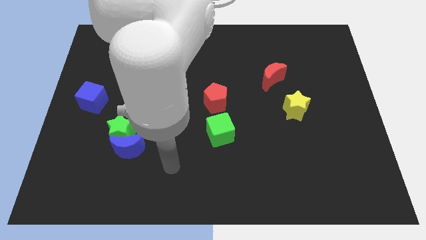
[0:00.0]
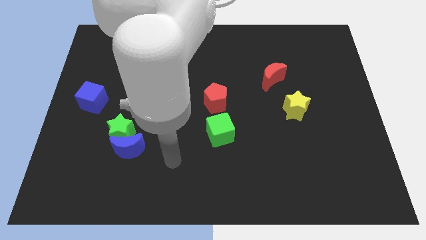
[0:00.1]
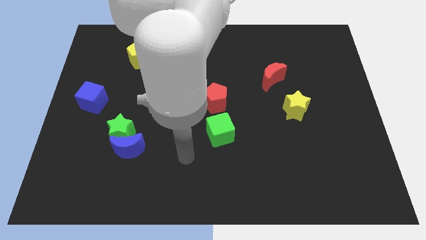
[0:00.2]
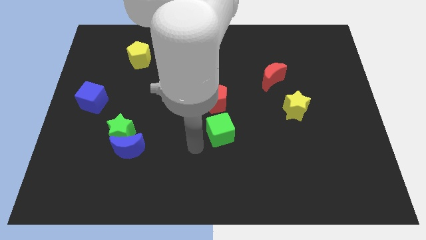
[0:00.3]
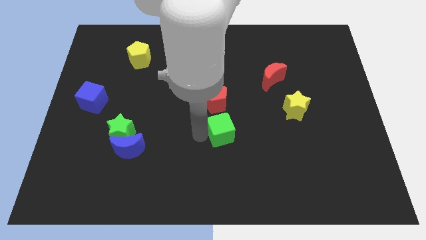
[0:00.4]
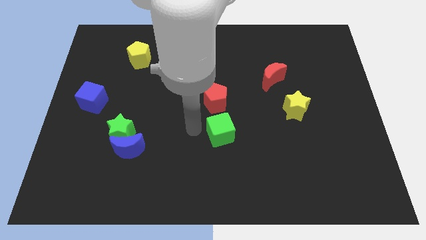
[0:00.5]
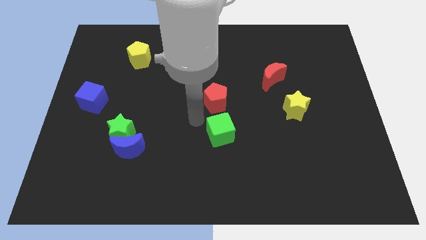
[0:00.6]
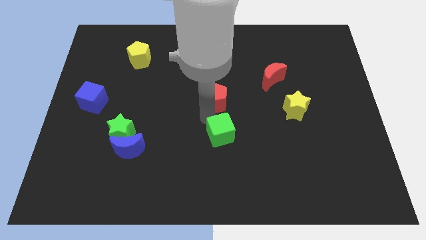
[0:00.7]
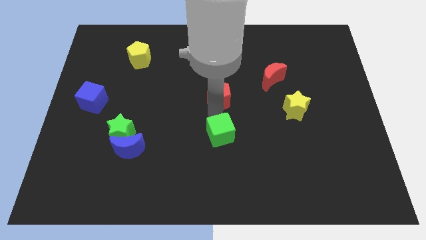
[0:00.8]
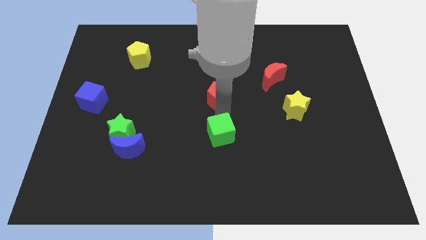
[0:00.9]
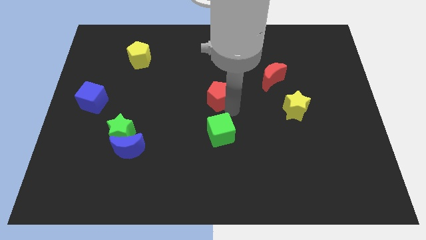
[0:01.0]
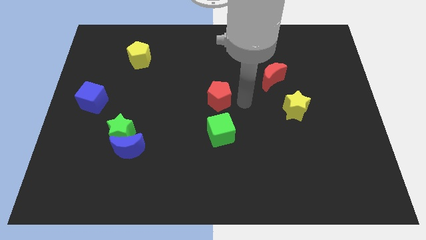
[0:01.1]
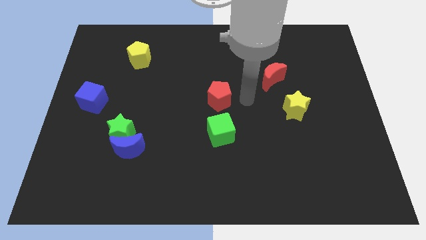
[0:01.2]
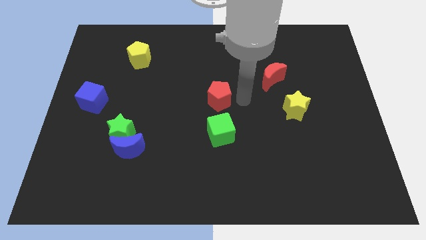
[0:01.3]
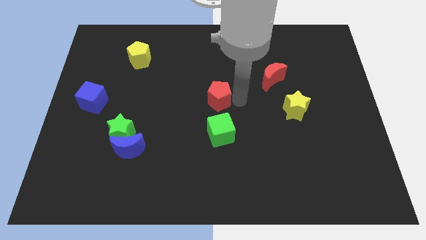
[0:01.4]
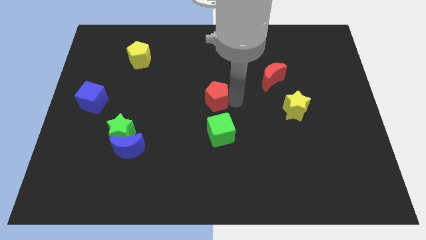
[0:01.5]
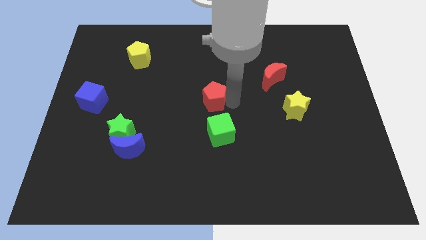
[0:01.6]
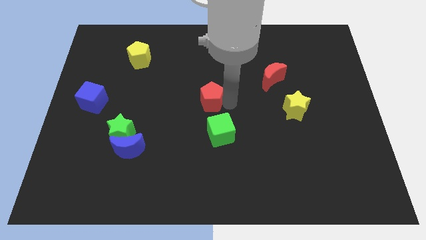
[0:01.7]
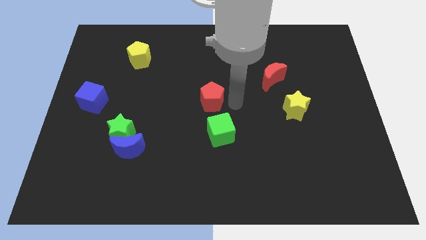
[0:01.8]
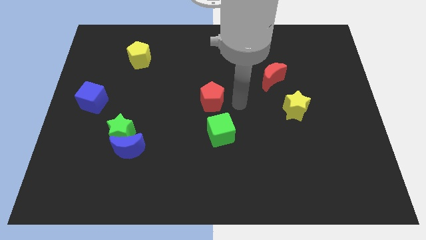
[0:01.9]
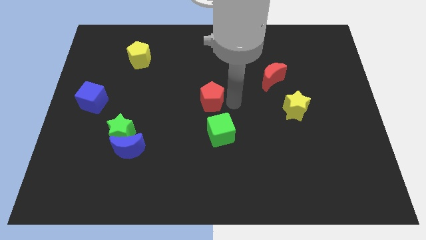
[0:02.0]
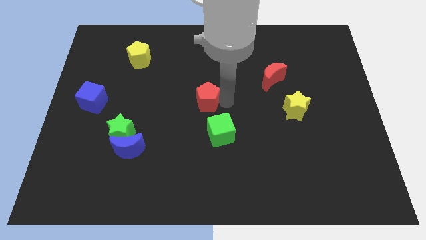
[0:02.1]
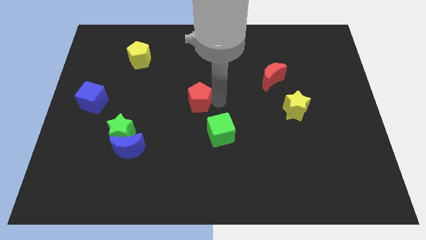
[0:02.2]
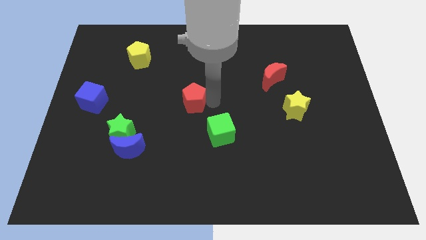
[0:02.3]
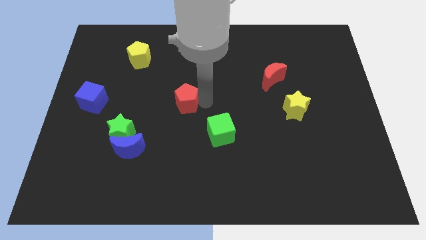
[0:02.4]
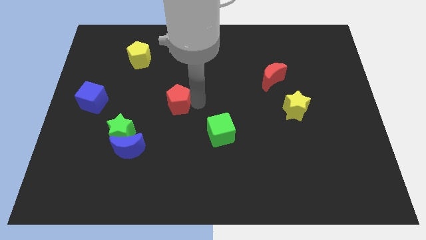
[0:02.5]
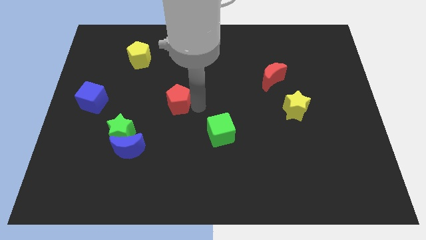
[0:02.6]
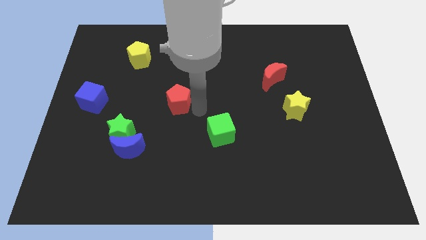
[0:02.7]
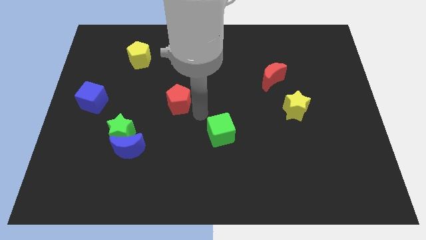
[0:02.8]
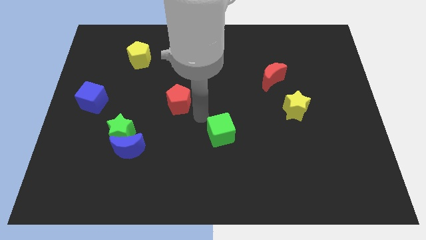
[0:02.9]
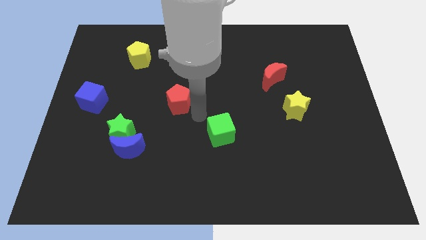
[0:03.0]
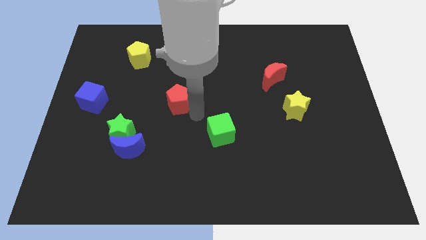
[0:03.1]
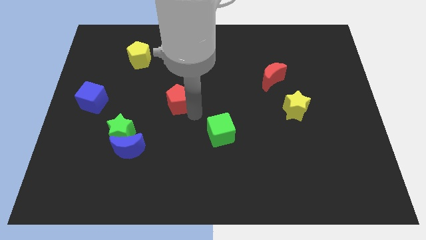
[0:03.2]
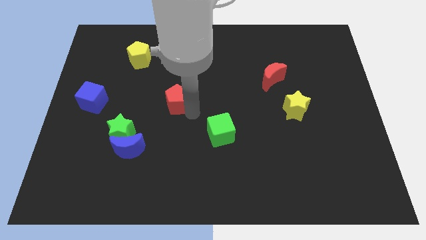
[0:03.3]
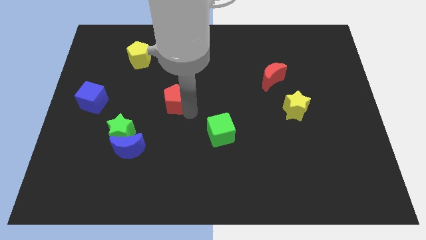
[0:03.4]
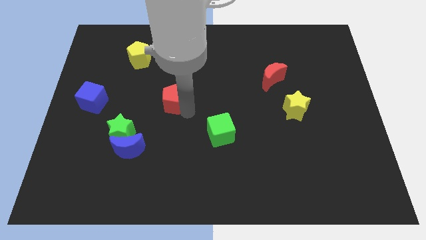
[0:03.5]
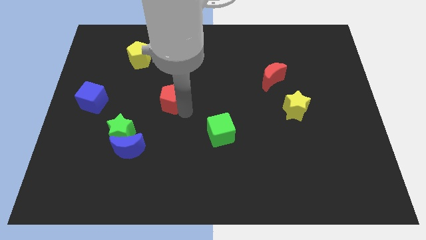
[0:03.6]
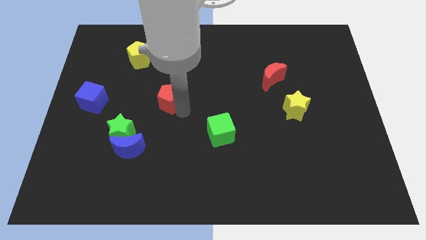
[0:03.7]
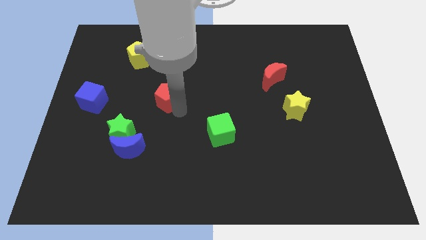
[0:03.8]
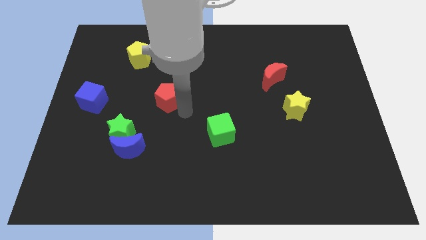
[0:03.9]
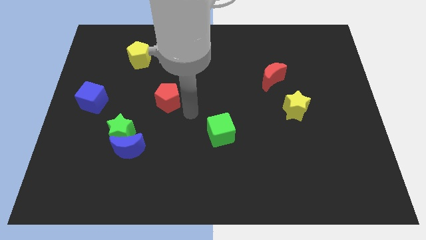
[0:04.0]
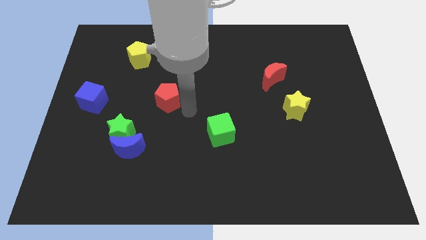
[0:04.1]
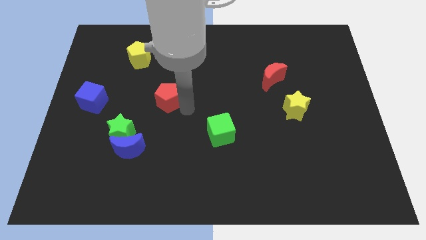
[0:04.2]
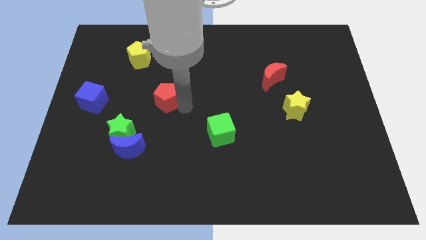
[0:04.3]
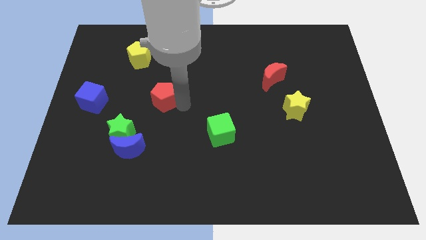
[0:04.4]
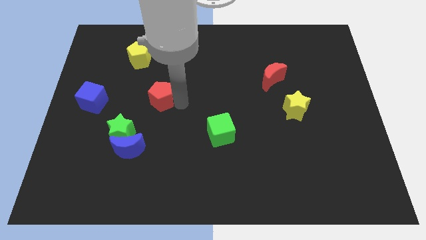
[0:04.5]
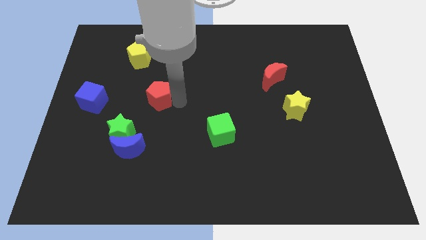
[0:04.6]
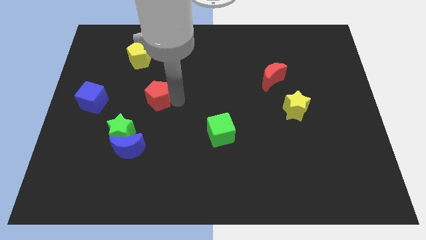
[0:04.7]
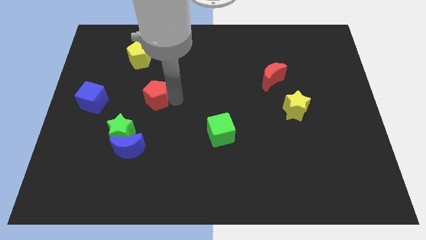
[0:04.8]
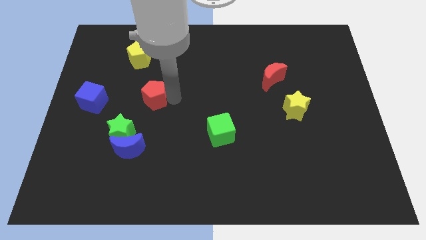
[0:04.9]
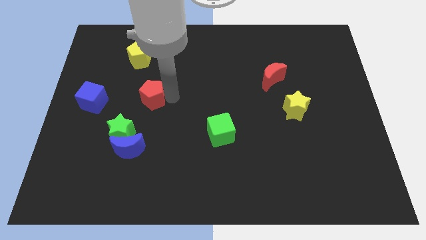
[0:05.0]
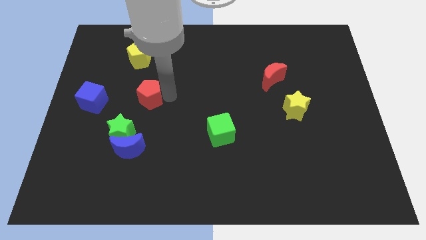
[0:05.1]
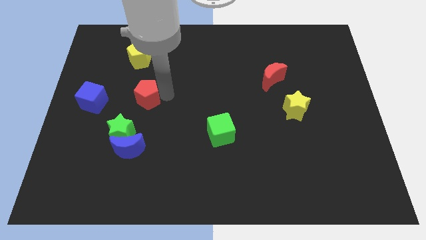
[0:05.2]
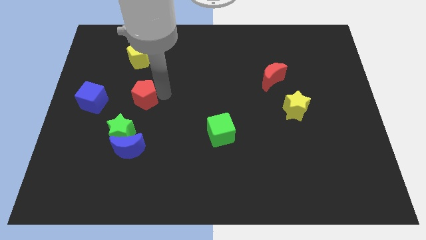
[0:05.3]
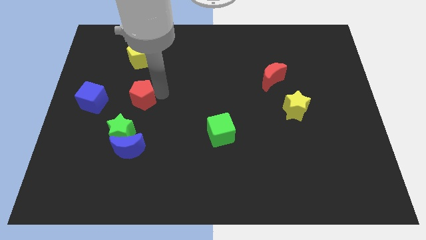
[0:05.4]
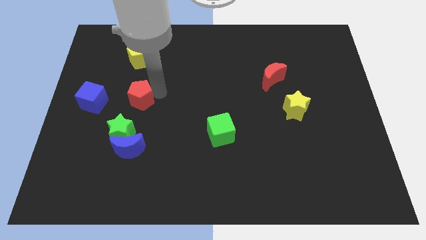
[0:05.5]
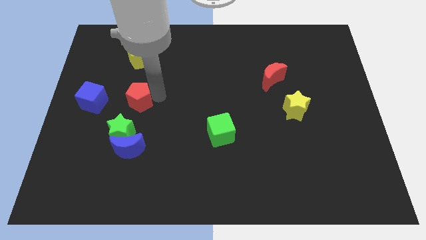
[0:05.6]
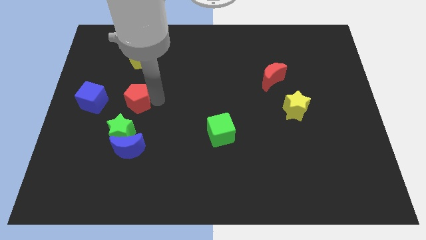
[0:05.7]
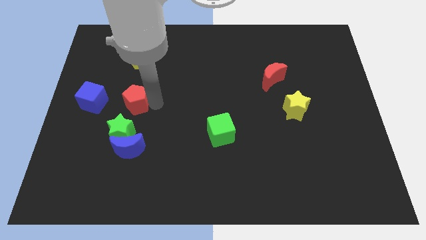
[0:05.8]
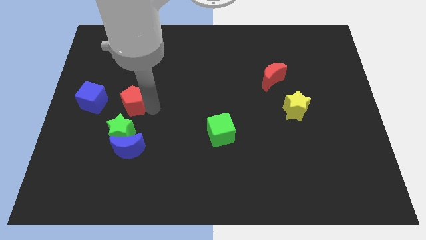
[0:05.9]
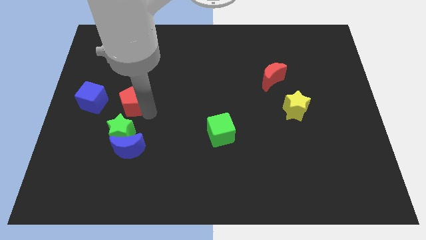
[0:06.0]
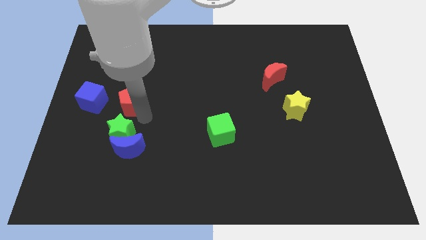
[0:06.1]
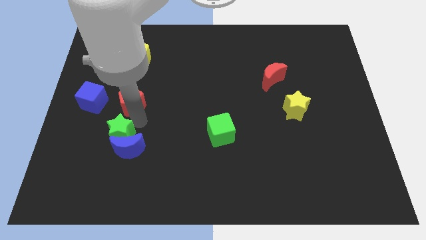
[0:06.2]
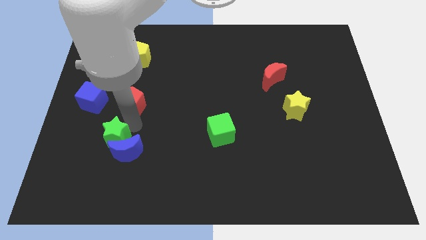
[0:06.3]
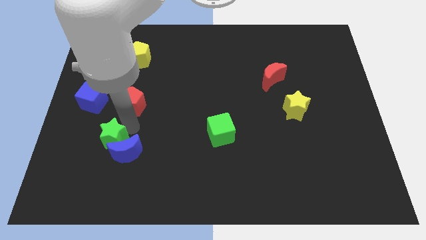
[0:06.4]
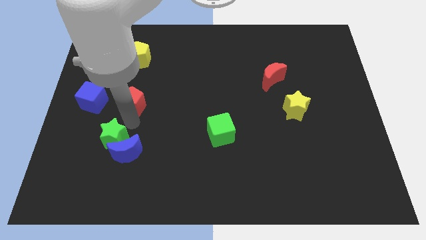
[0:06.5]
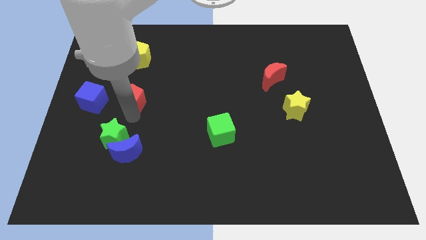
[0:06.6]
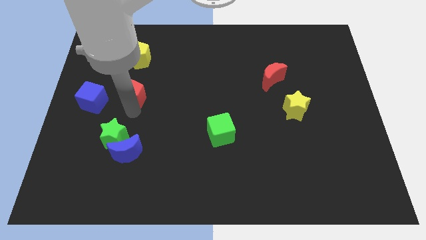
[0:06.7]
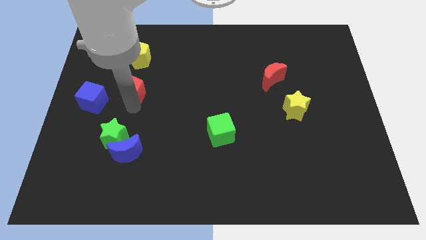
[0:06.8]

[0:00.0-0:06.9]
push the red pentagon diagonally up and to the right of the blue cube

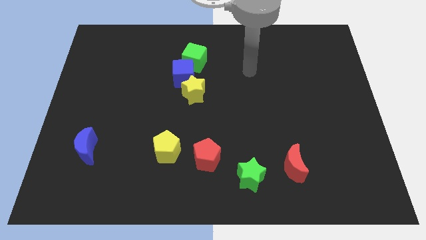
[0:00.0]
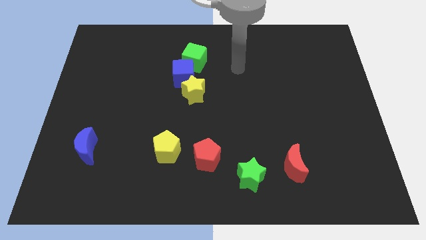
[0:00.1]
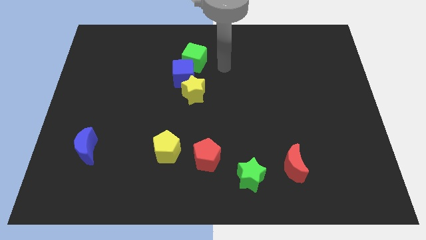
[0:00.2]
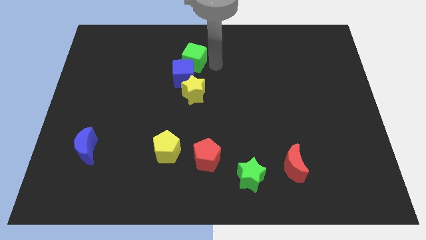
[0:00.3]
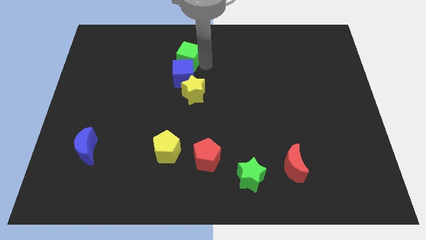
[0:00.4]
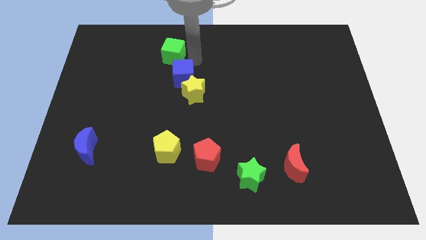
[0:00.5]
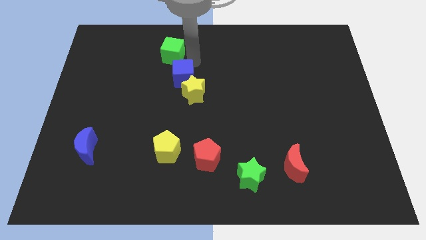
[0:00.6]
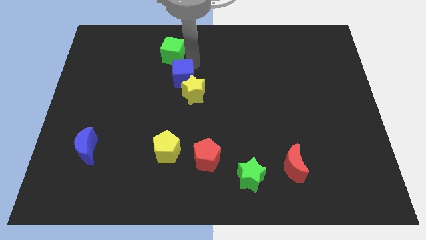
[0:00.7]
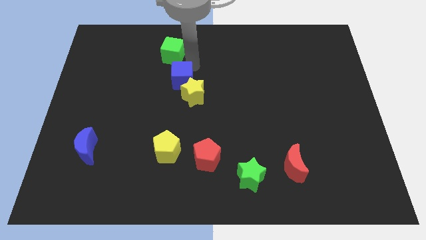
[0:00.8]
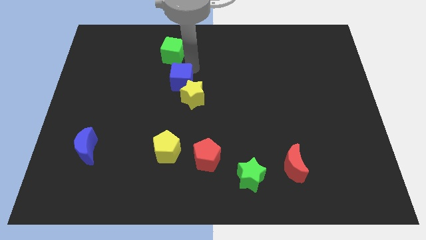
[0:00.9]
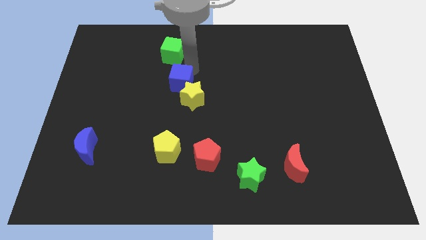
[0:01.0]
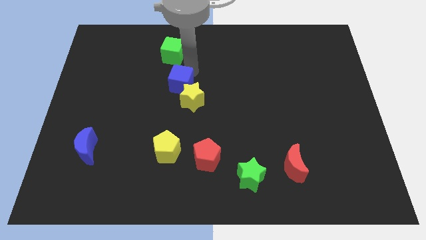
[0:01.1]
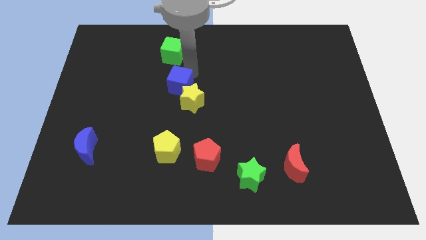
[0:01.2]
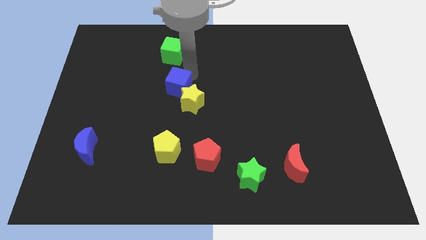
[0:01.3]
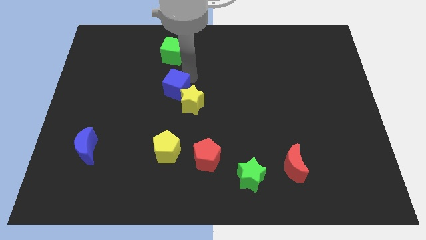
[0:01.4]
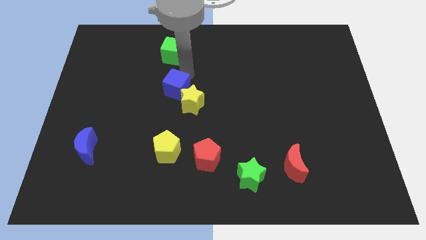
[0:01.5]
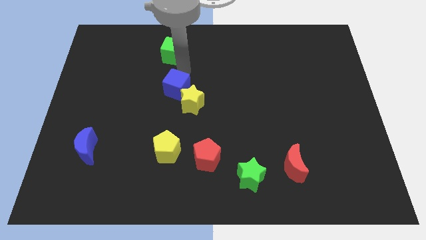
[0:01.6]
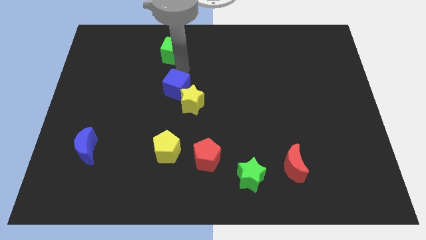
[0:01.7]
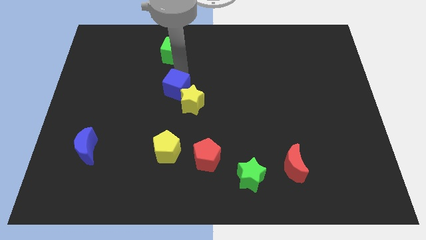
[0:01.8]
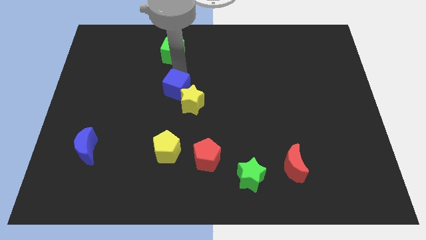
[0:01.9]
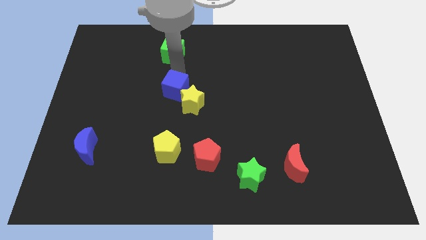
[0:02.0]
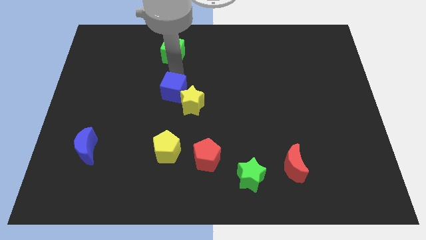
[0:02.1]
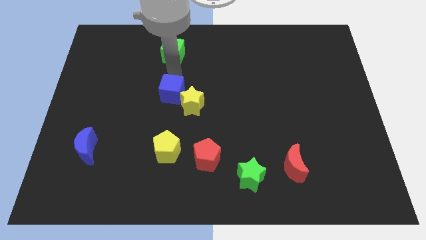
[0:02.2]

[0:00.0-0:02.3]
move the blue cube to the top side of the yellow pentagon
